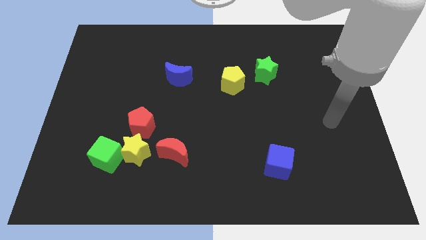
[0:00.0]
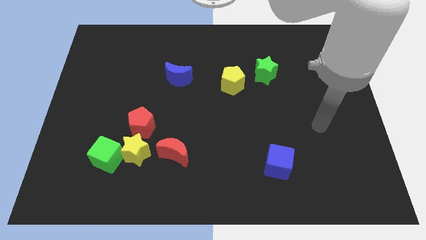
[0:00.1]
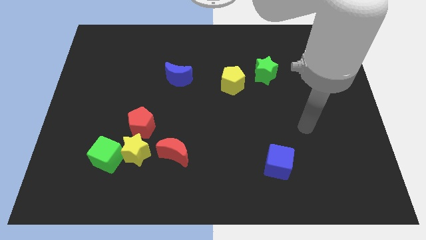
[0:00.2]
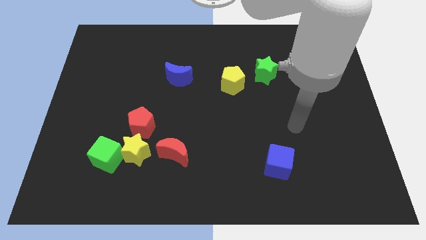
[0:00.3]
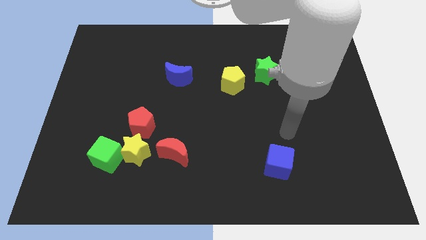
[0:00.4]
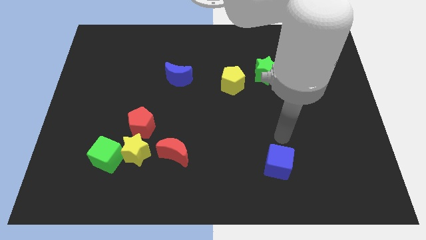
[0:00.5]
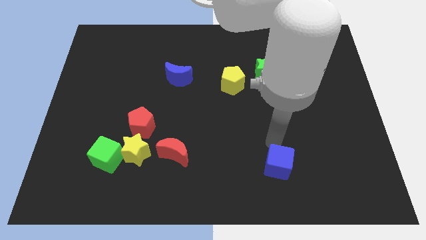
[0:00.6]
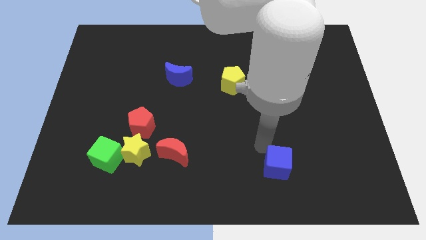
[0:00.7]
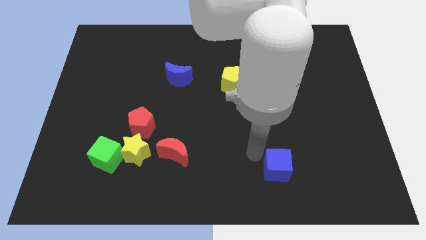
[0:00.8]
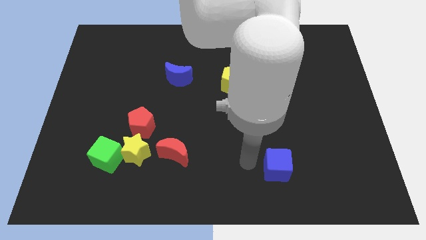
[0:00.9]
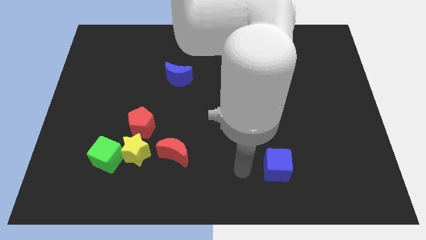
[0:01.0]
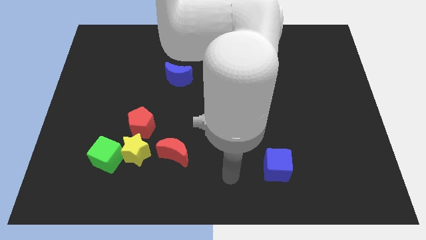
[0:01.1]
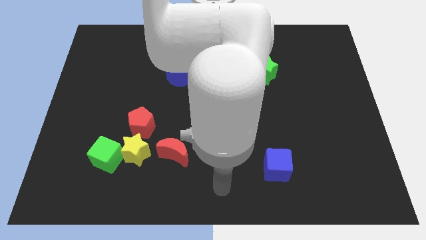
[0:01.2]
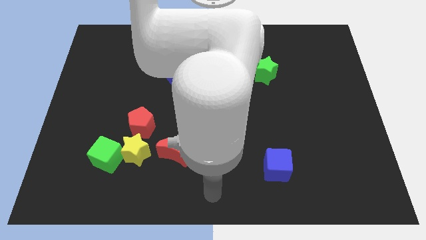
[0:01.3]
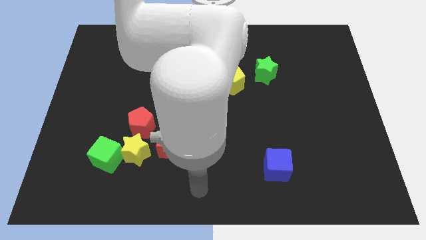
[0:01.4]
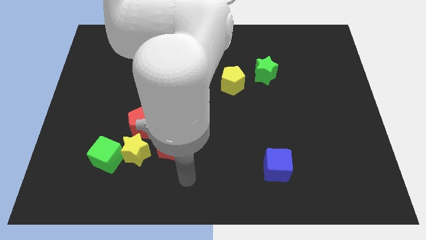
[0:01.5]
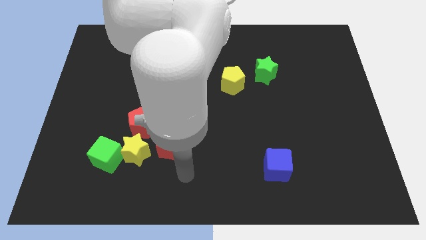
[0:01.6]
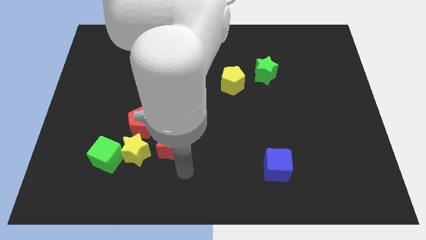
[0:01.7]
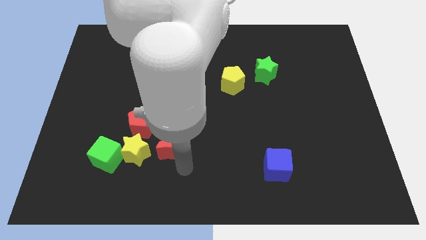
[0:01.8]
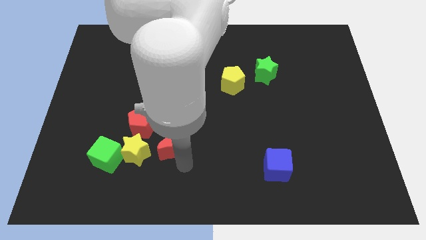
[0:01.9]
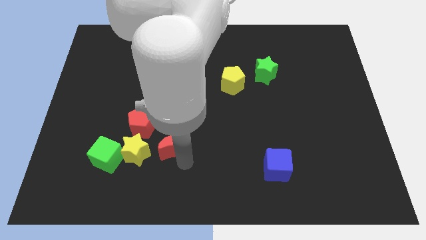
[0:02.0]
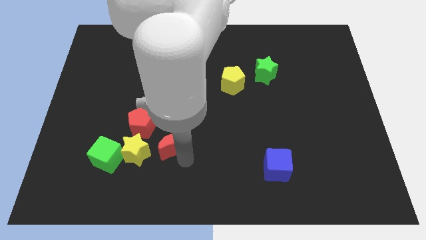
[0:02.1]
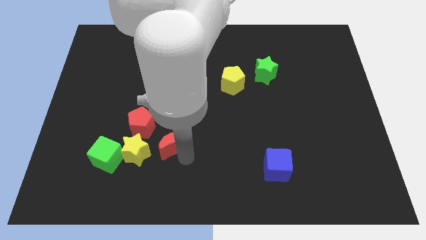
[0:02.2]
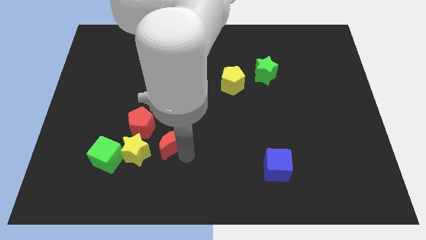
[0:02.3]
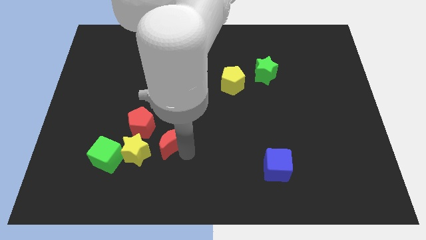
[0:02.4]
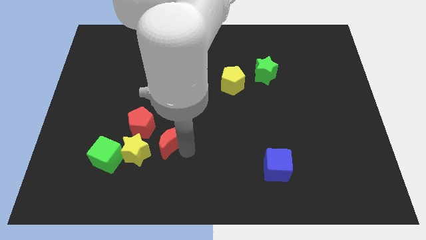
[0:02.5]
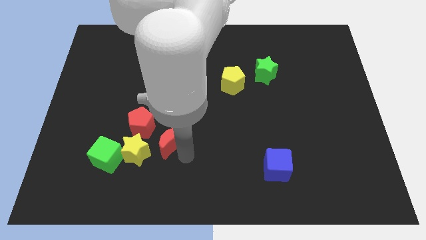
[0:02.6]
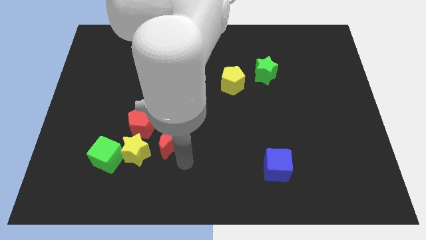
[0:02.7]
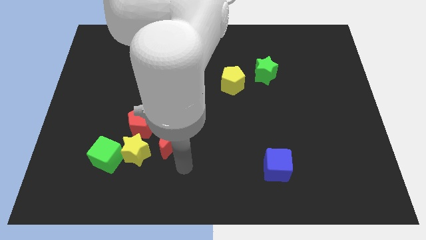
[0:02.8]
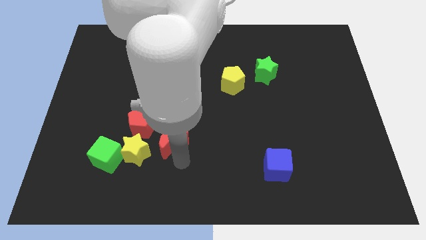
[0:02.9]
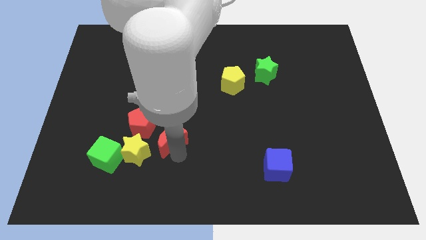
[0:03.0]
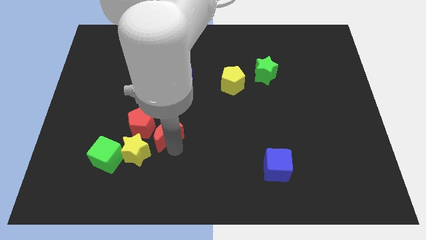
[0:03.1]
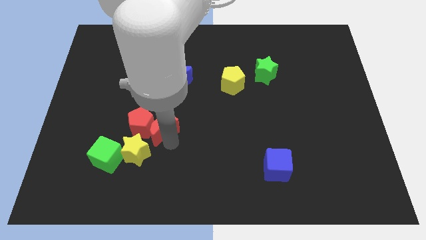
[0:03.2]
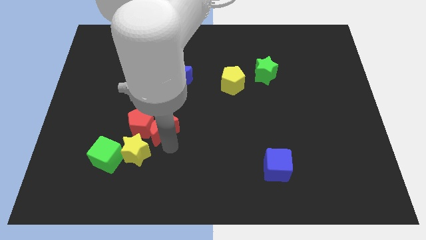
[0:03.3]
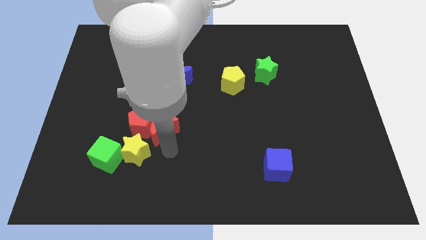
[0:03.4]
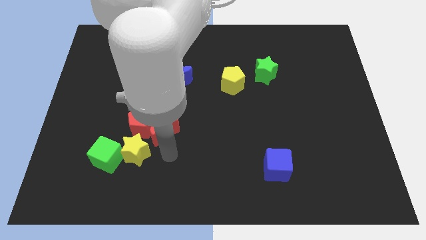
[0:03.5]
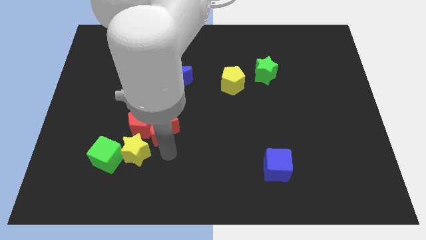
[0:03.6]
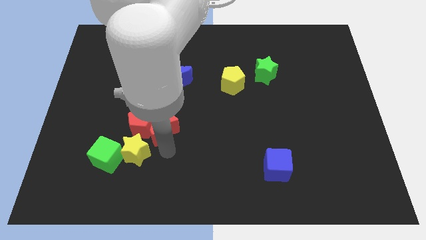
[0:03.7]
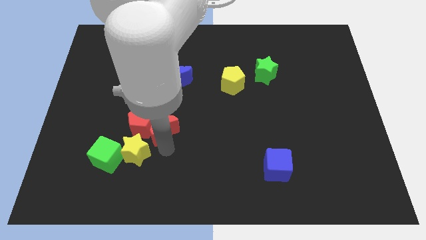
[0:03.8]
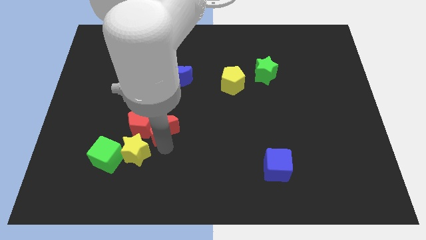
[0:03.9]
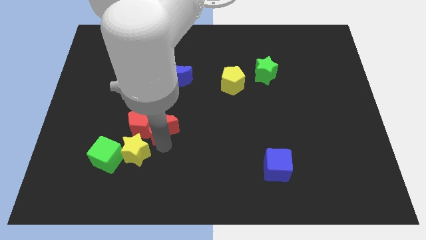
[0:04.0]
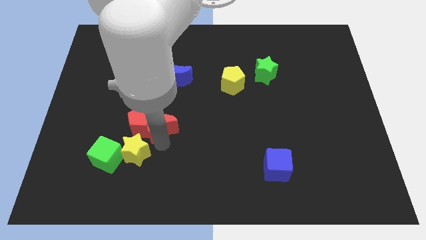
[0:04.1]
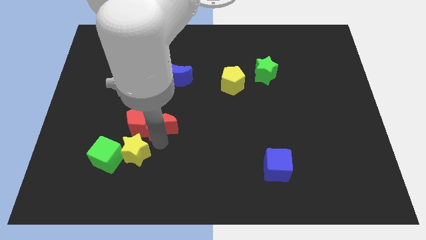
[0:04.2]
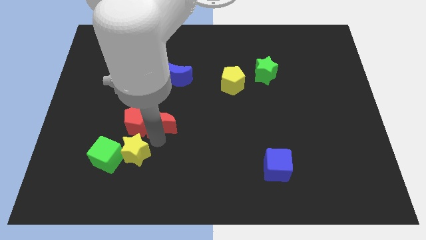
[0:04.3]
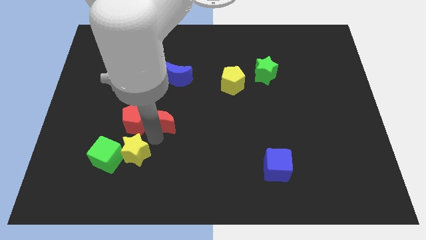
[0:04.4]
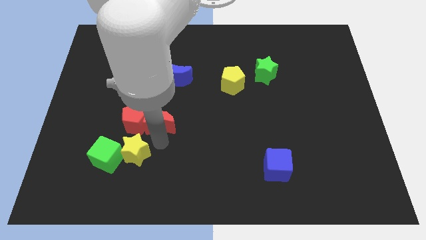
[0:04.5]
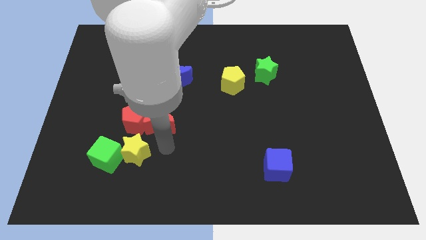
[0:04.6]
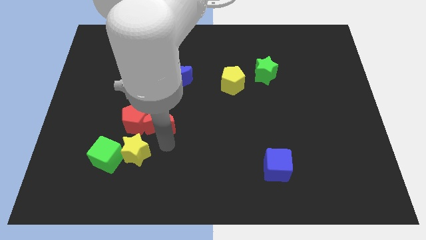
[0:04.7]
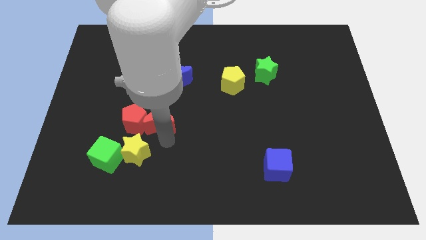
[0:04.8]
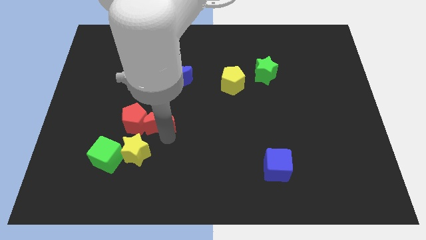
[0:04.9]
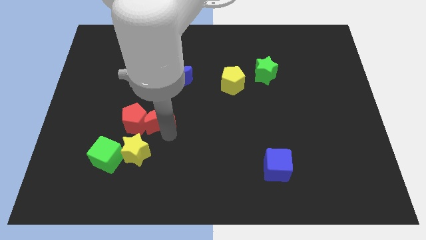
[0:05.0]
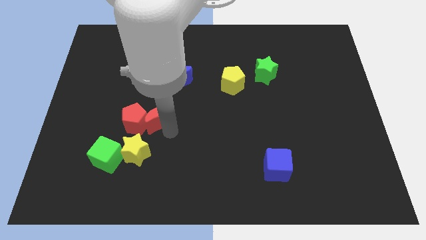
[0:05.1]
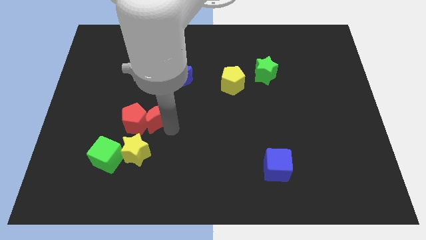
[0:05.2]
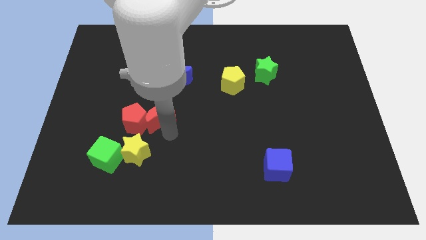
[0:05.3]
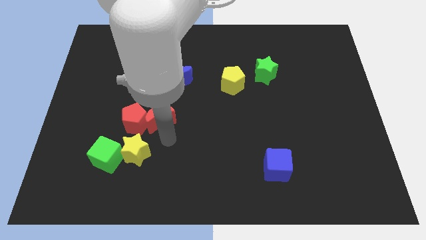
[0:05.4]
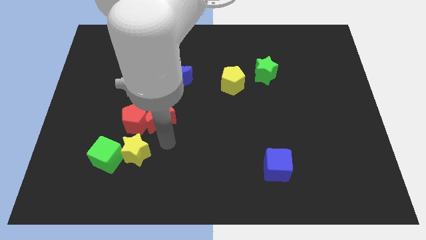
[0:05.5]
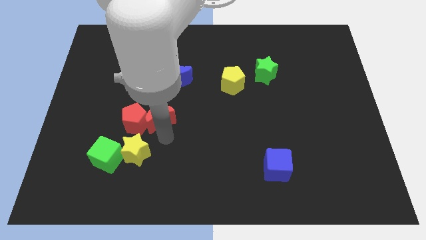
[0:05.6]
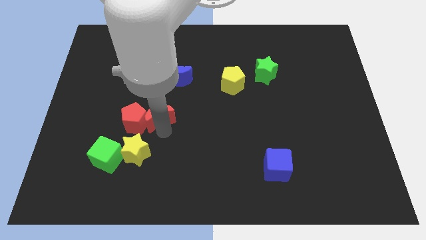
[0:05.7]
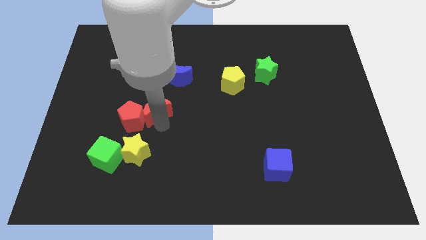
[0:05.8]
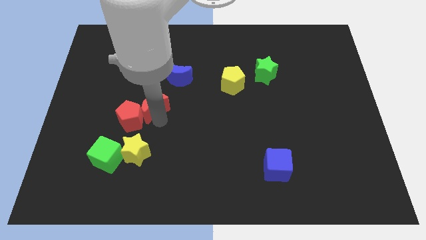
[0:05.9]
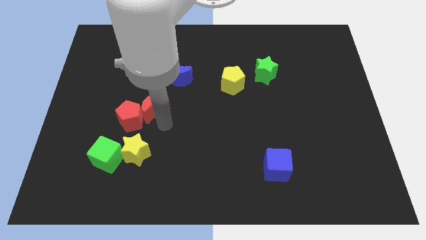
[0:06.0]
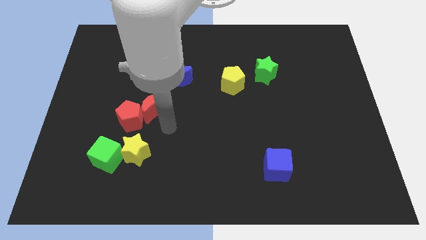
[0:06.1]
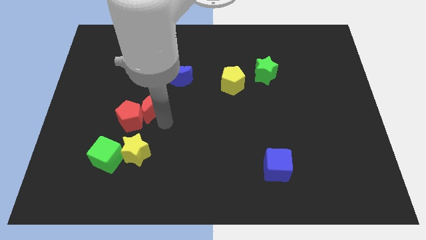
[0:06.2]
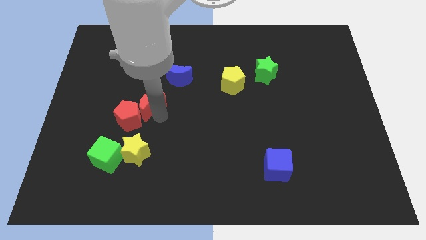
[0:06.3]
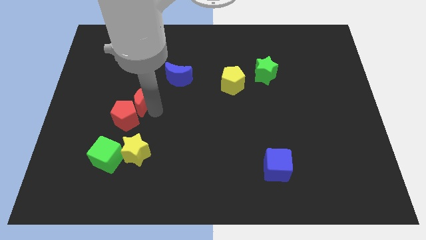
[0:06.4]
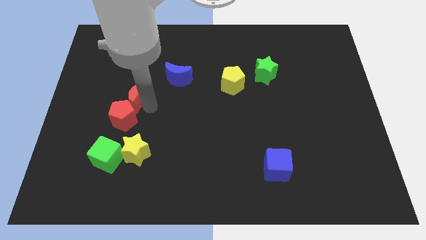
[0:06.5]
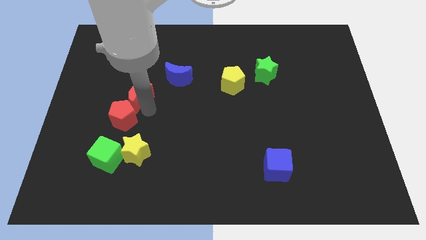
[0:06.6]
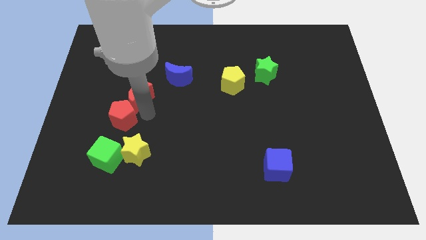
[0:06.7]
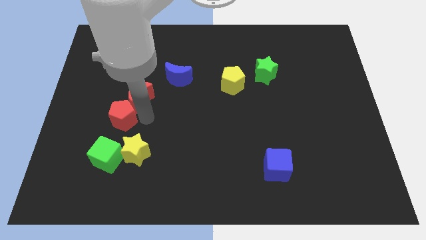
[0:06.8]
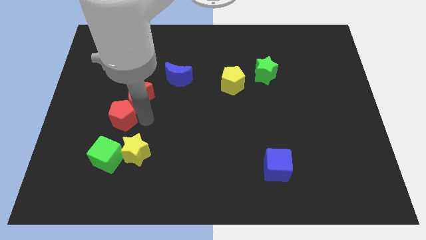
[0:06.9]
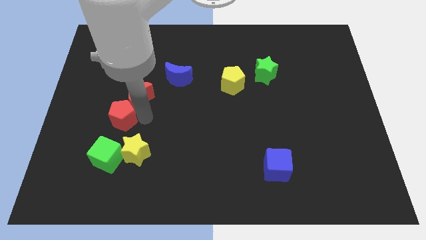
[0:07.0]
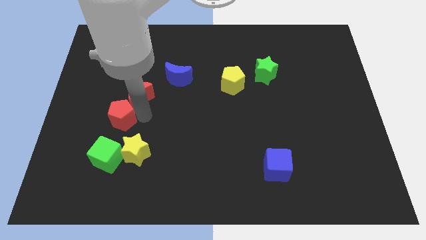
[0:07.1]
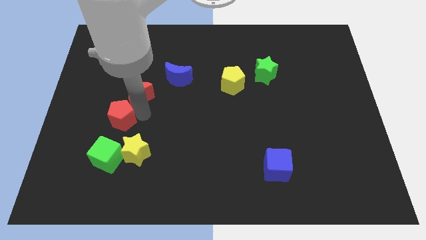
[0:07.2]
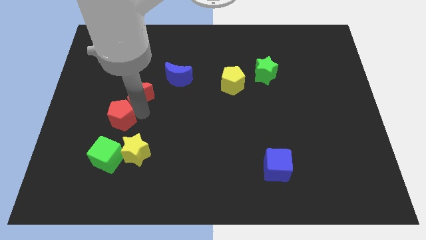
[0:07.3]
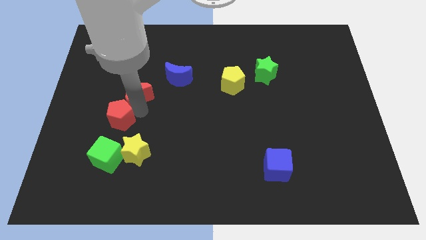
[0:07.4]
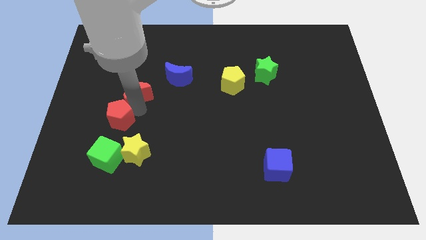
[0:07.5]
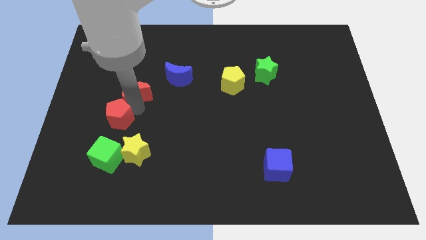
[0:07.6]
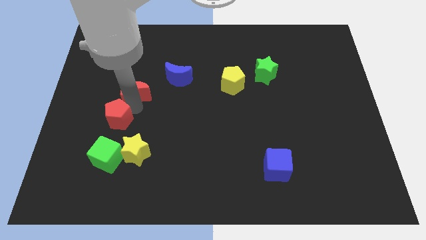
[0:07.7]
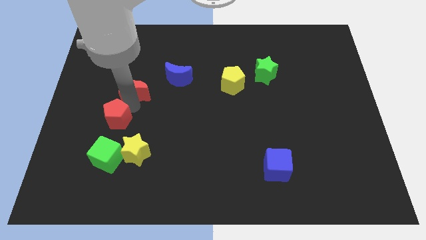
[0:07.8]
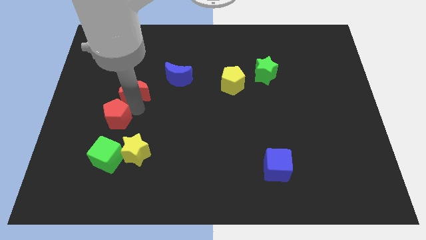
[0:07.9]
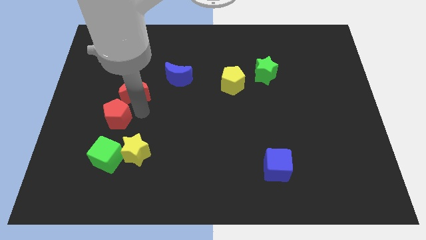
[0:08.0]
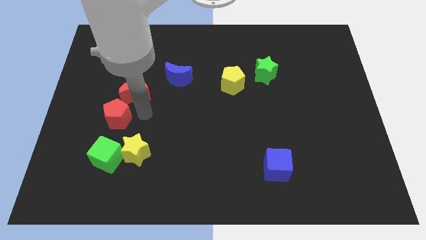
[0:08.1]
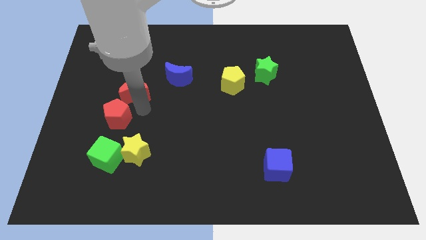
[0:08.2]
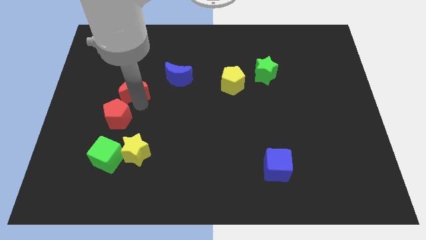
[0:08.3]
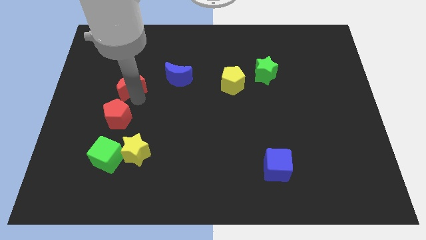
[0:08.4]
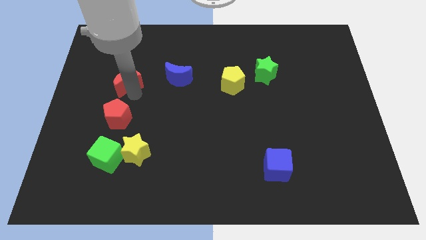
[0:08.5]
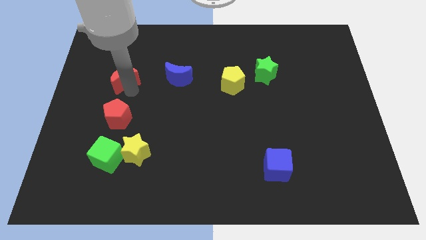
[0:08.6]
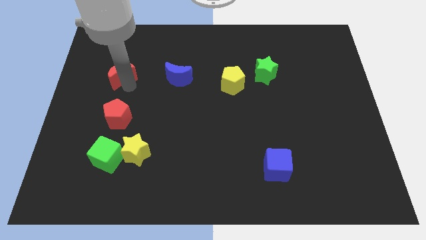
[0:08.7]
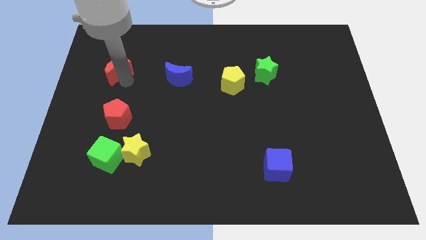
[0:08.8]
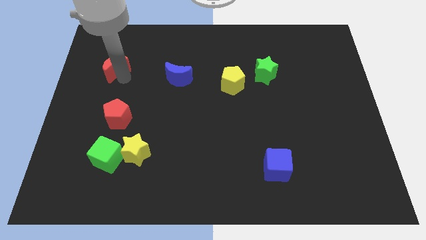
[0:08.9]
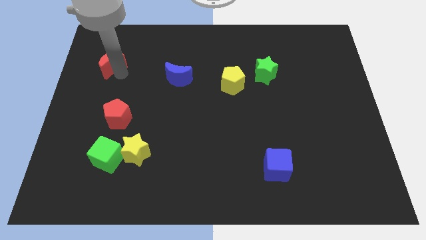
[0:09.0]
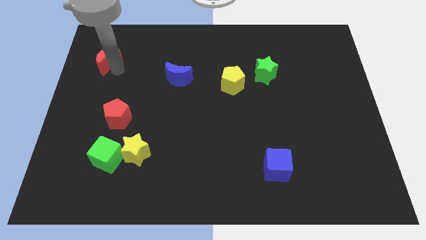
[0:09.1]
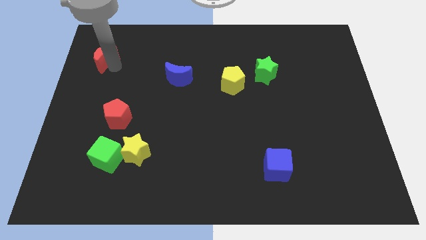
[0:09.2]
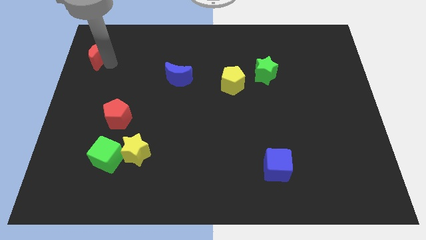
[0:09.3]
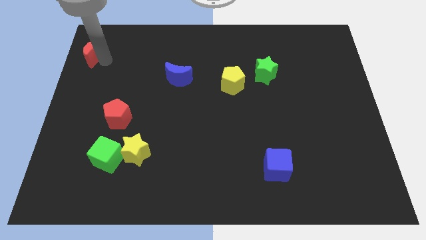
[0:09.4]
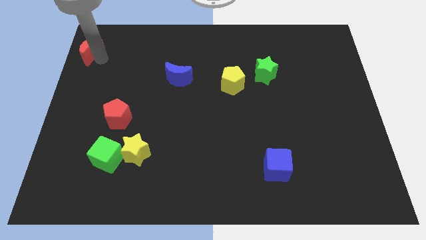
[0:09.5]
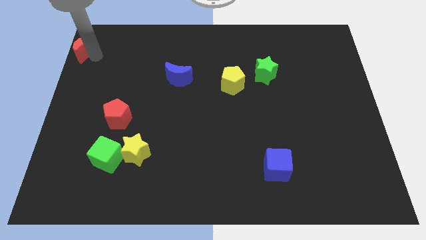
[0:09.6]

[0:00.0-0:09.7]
push the red moon to the upper left corner
